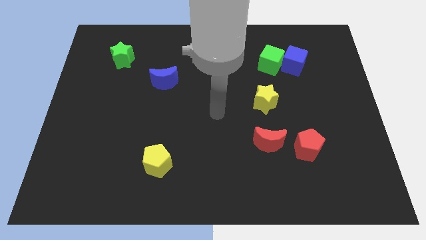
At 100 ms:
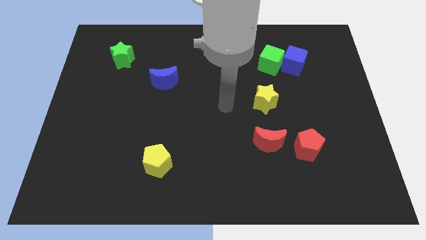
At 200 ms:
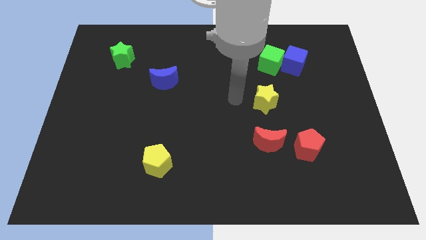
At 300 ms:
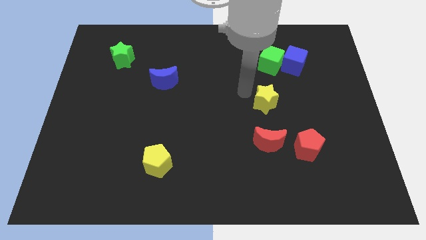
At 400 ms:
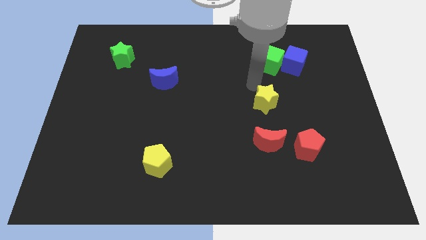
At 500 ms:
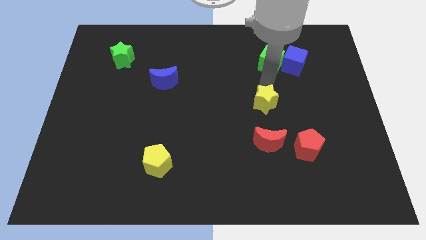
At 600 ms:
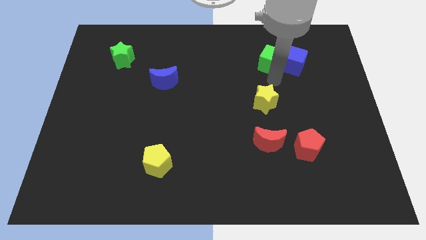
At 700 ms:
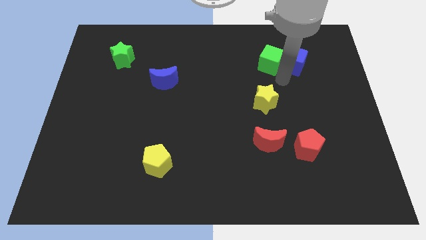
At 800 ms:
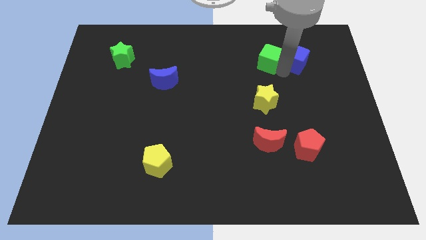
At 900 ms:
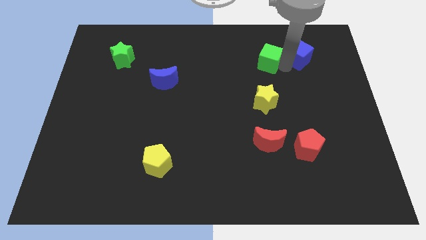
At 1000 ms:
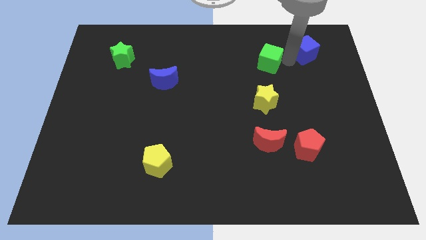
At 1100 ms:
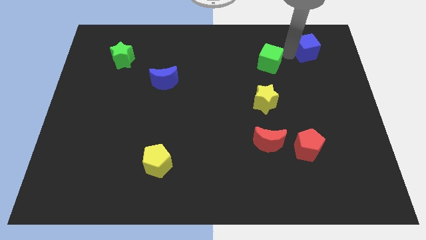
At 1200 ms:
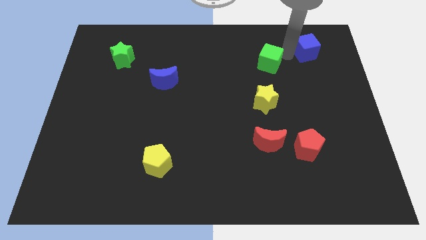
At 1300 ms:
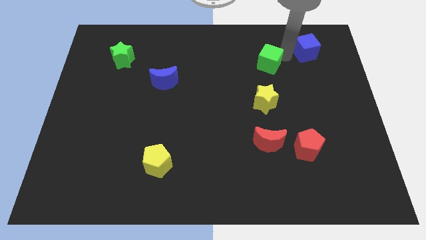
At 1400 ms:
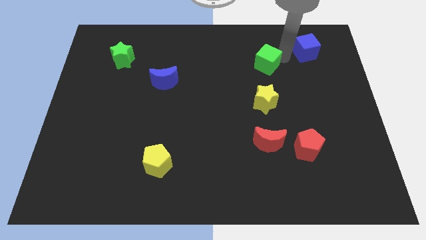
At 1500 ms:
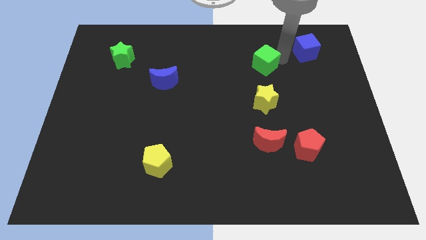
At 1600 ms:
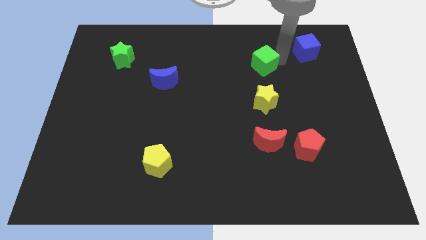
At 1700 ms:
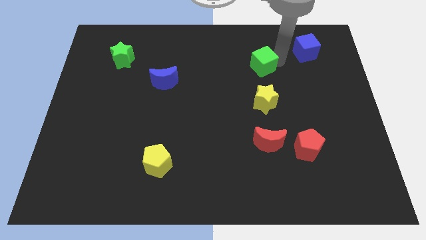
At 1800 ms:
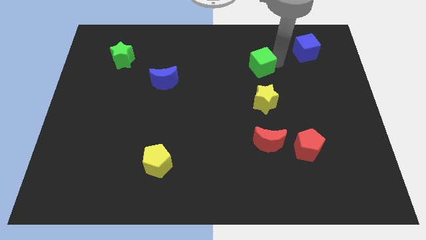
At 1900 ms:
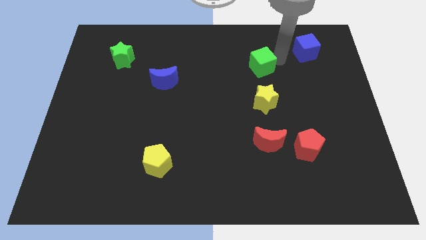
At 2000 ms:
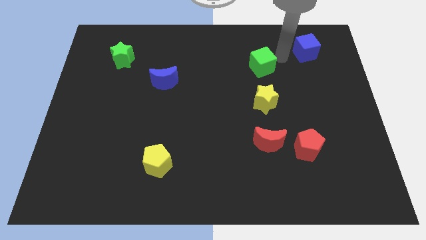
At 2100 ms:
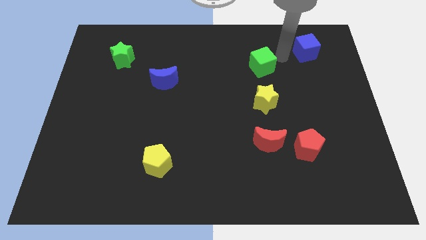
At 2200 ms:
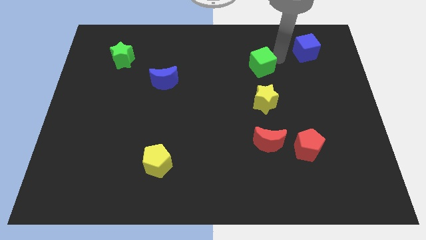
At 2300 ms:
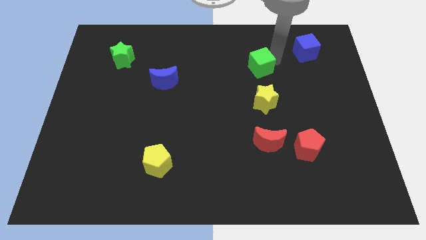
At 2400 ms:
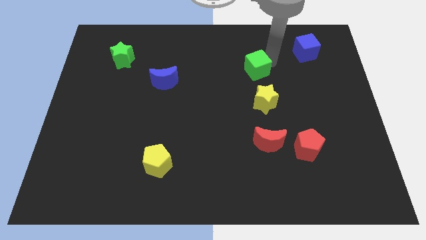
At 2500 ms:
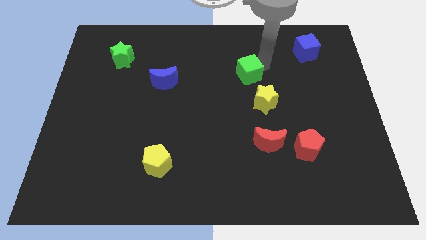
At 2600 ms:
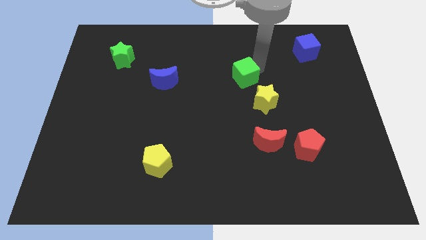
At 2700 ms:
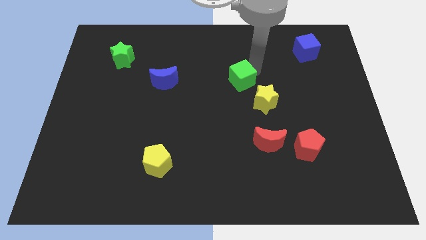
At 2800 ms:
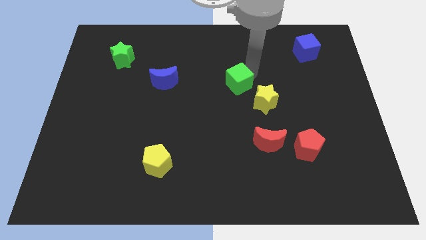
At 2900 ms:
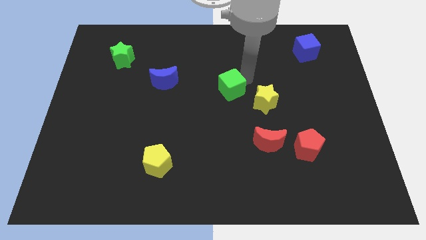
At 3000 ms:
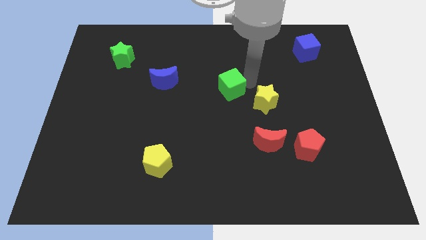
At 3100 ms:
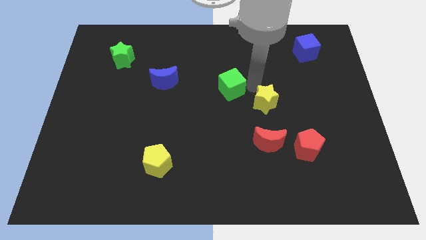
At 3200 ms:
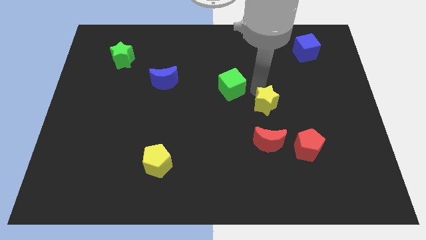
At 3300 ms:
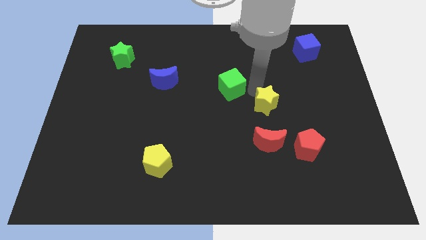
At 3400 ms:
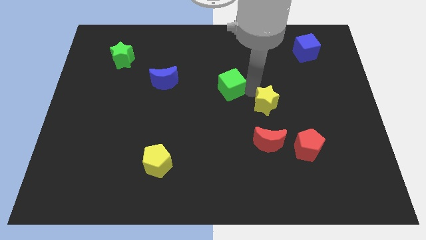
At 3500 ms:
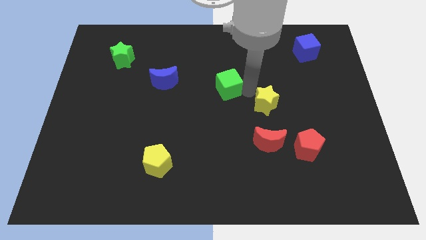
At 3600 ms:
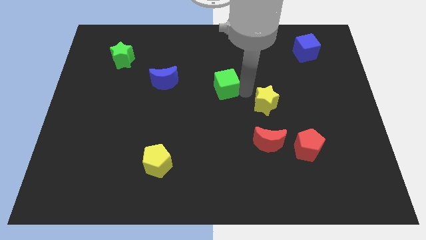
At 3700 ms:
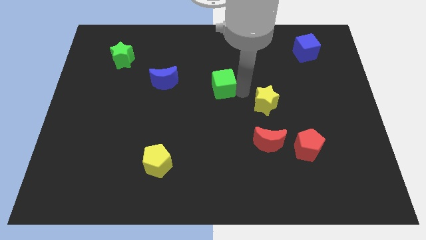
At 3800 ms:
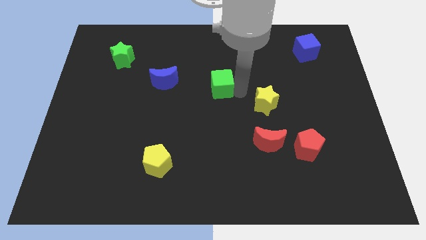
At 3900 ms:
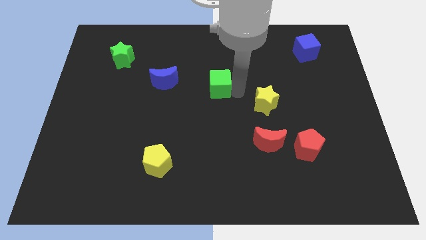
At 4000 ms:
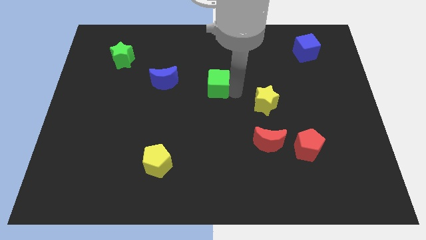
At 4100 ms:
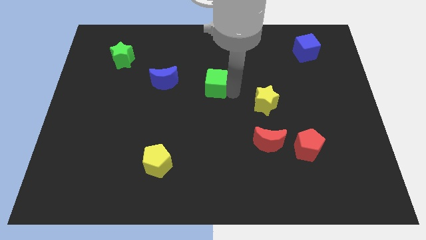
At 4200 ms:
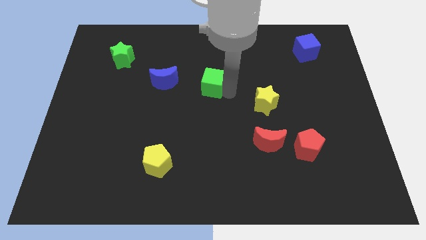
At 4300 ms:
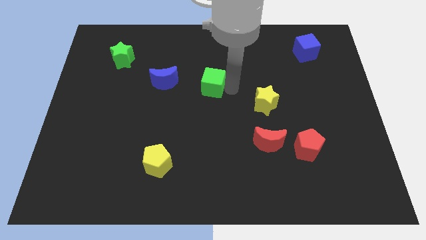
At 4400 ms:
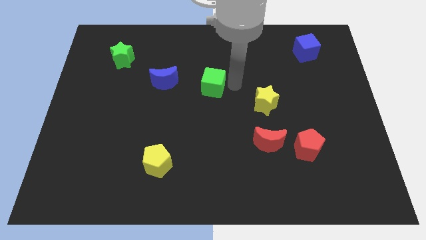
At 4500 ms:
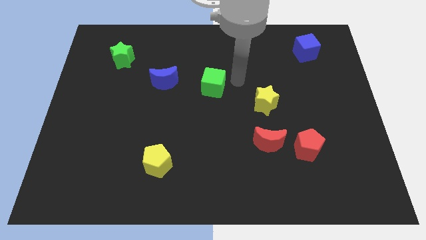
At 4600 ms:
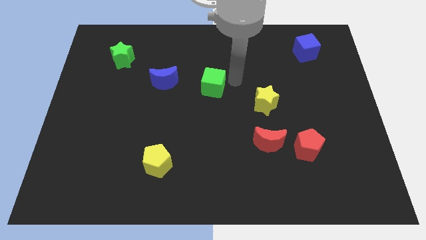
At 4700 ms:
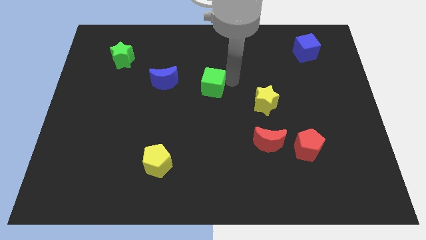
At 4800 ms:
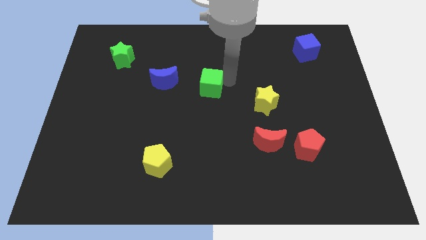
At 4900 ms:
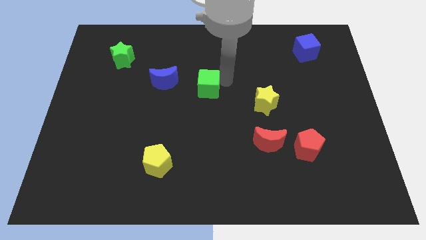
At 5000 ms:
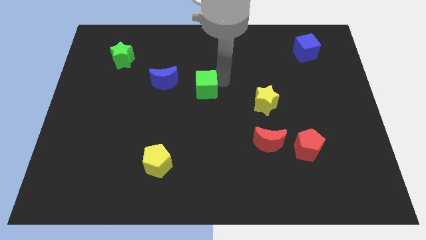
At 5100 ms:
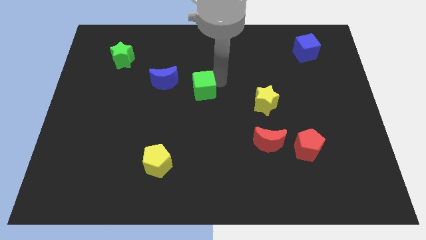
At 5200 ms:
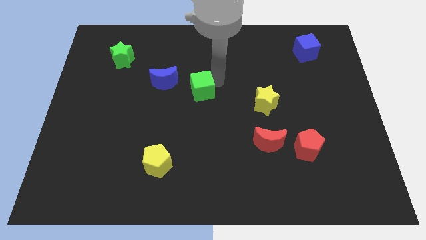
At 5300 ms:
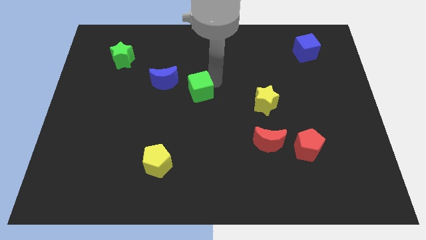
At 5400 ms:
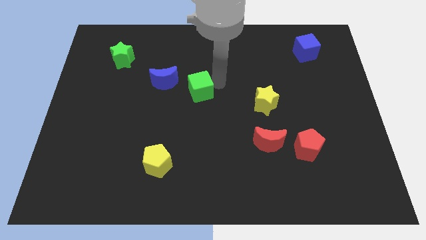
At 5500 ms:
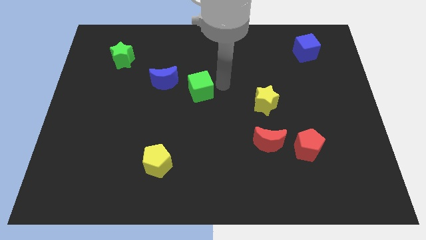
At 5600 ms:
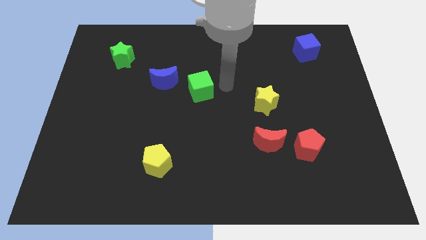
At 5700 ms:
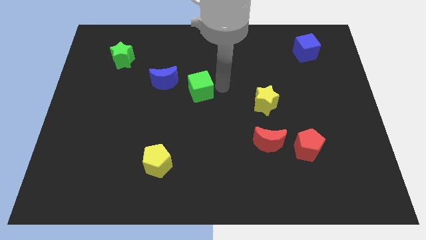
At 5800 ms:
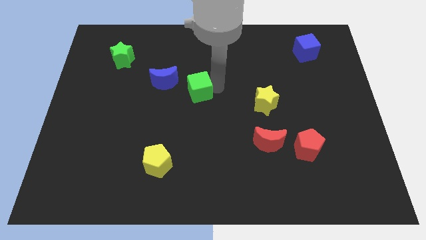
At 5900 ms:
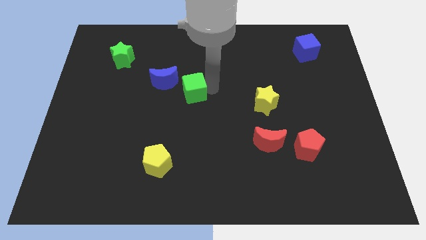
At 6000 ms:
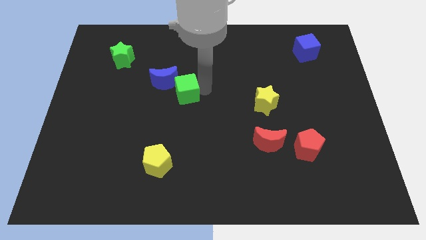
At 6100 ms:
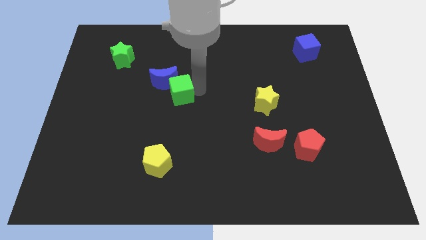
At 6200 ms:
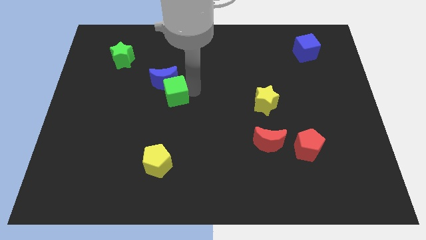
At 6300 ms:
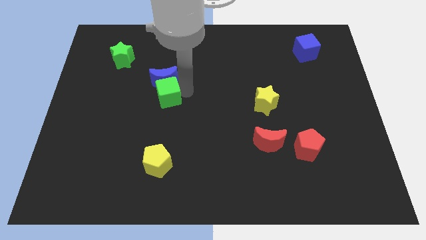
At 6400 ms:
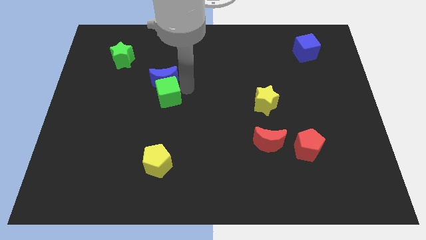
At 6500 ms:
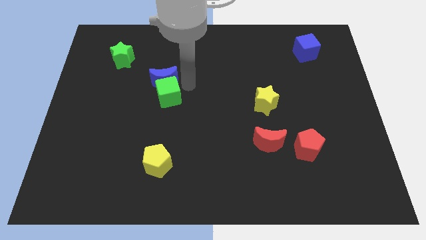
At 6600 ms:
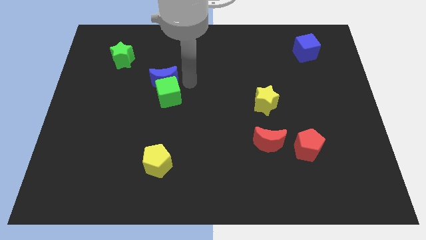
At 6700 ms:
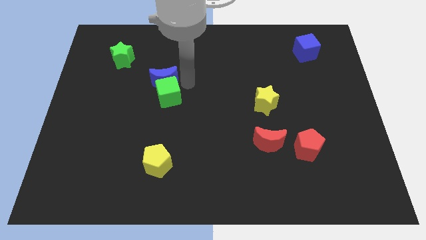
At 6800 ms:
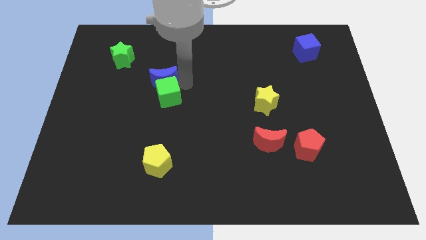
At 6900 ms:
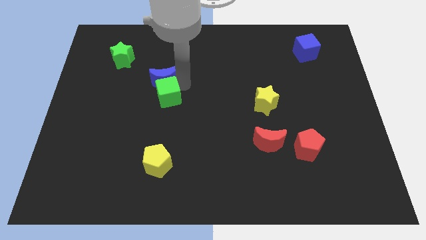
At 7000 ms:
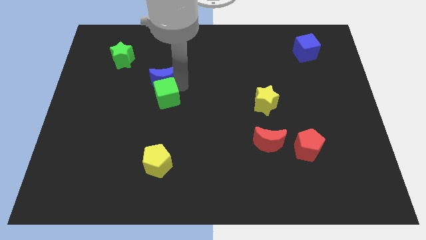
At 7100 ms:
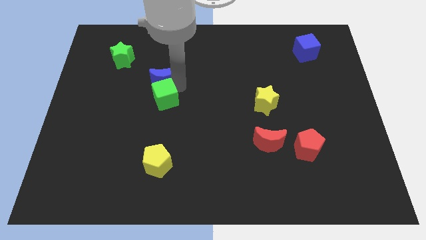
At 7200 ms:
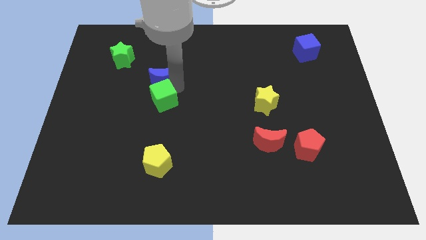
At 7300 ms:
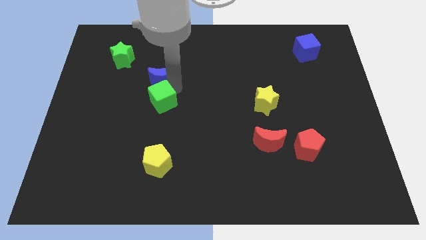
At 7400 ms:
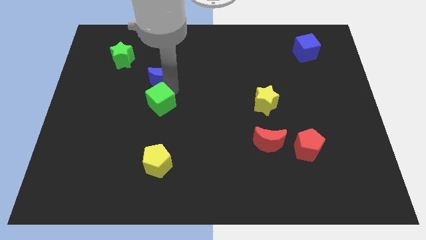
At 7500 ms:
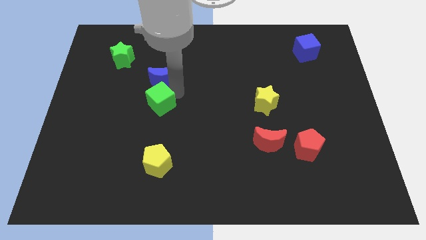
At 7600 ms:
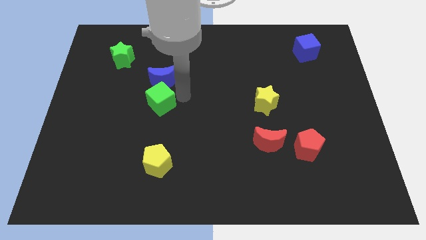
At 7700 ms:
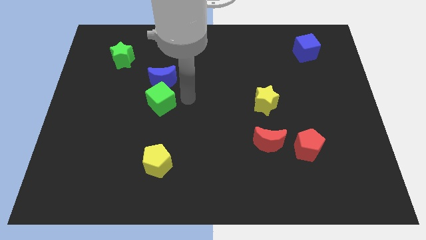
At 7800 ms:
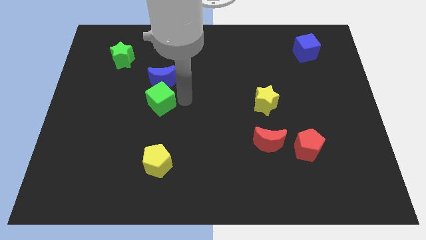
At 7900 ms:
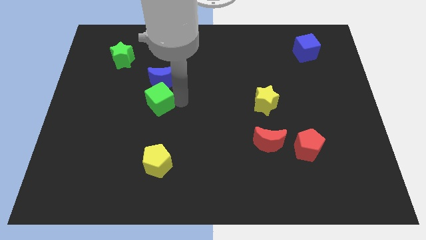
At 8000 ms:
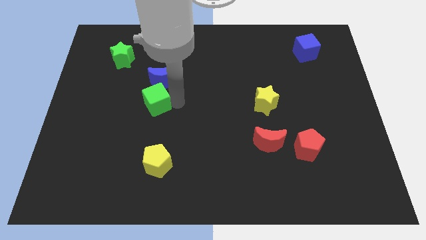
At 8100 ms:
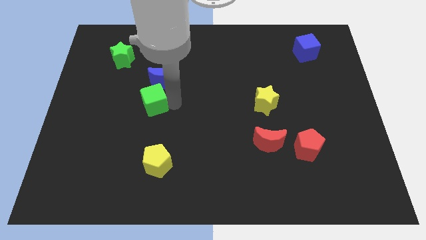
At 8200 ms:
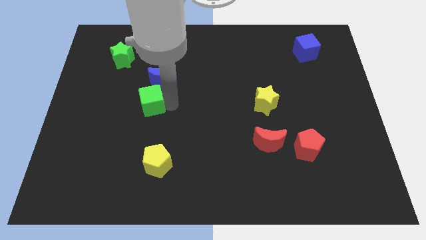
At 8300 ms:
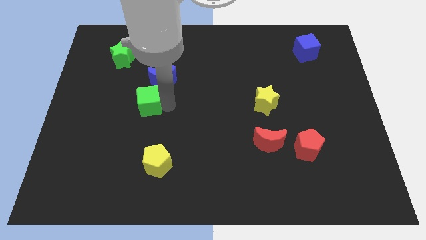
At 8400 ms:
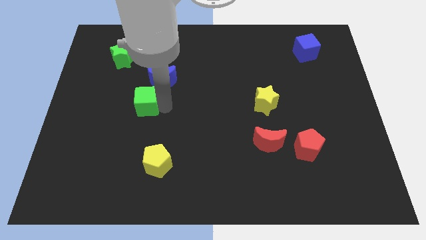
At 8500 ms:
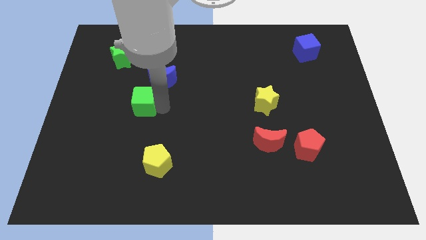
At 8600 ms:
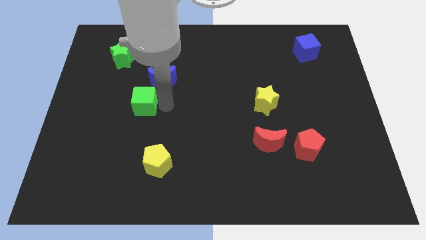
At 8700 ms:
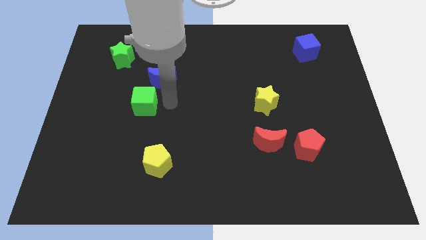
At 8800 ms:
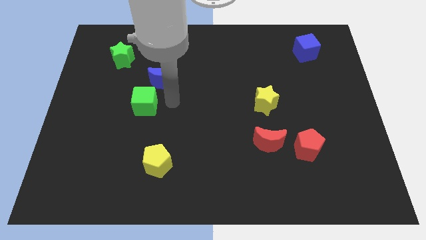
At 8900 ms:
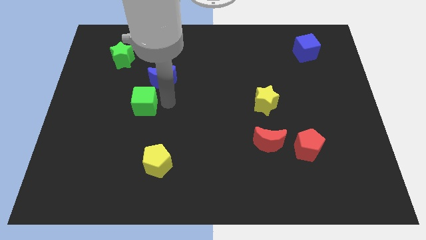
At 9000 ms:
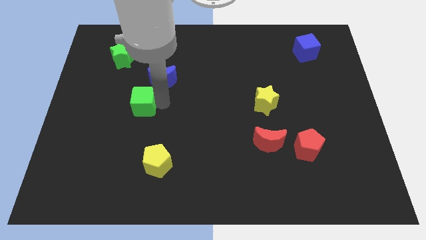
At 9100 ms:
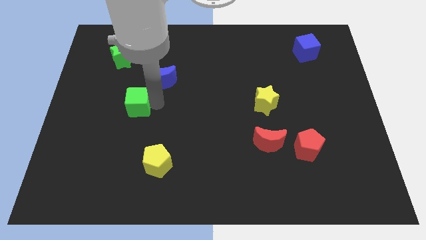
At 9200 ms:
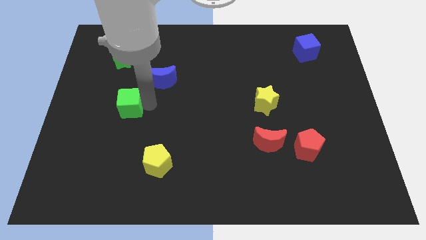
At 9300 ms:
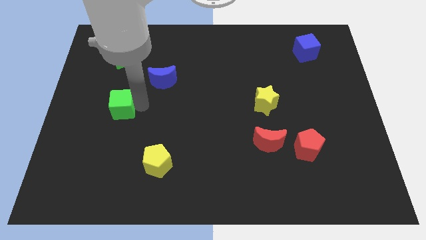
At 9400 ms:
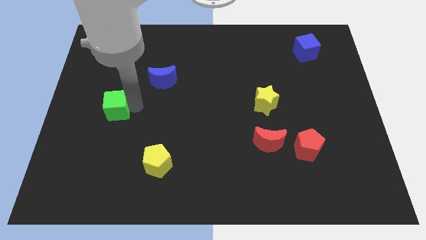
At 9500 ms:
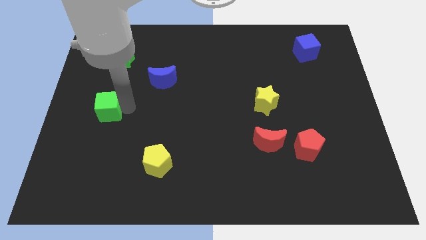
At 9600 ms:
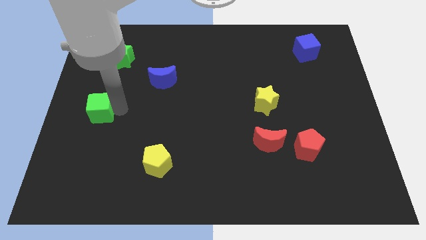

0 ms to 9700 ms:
put the green cube to the center left
